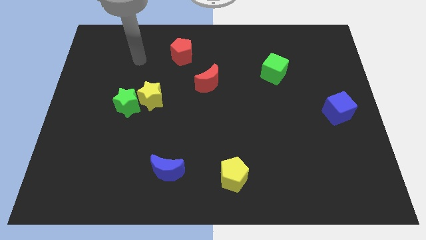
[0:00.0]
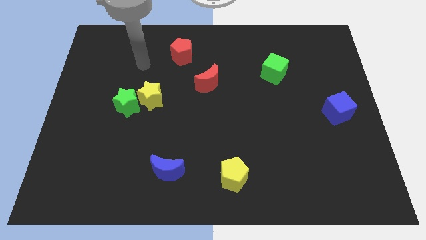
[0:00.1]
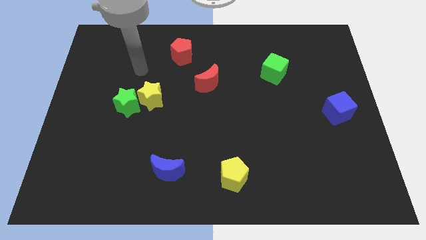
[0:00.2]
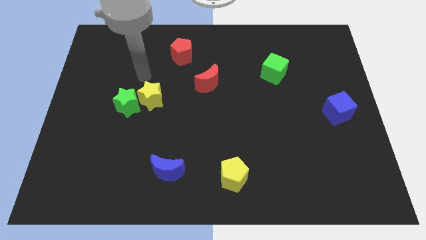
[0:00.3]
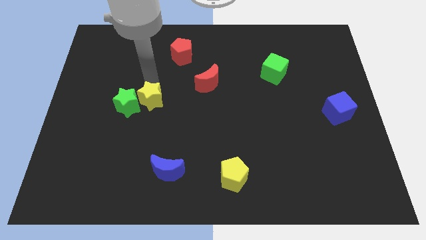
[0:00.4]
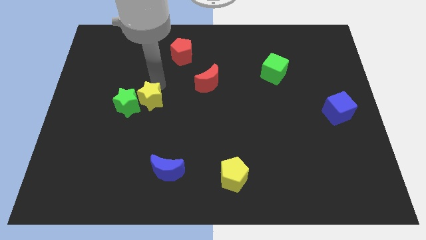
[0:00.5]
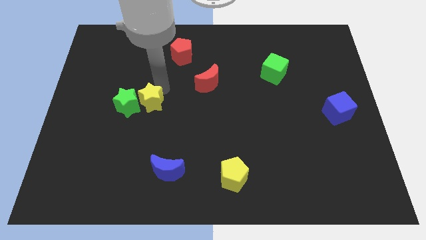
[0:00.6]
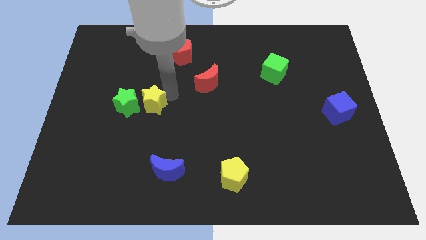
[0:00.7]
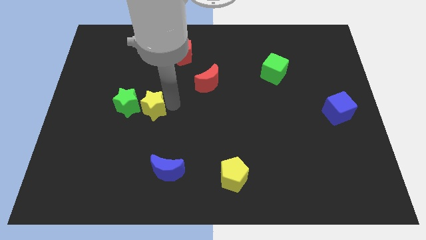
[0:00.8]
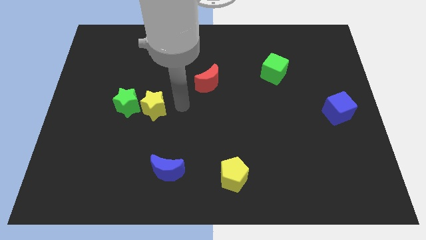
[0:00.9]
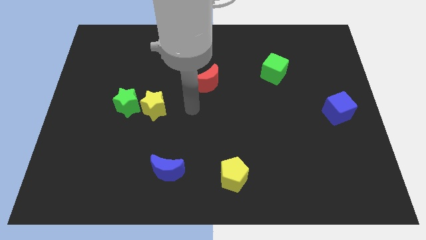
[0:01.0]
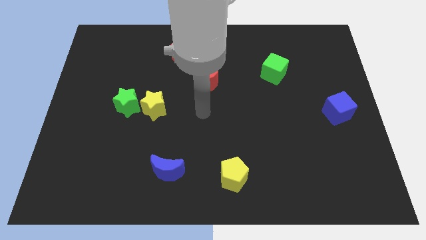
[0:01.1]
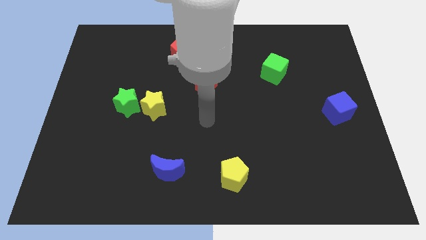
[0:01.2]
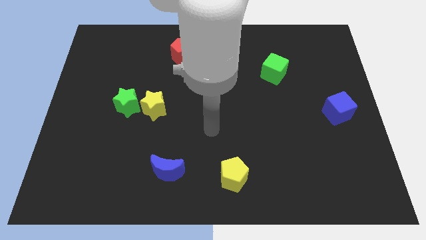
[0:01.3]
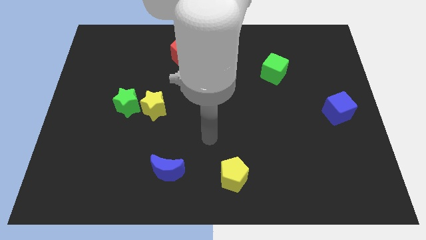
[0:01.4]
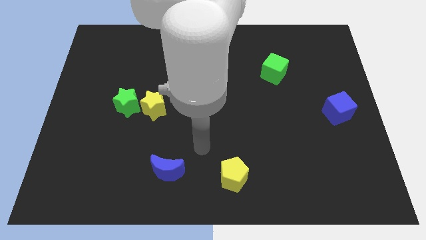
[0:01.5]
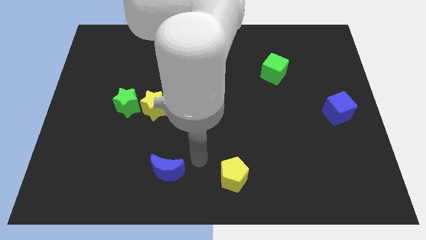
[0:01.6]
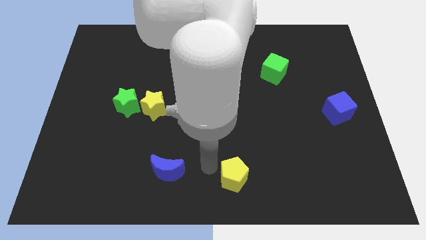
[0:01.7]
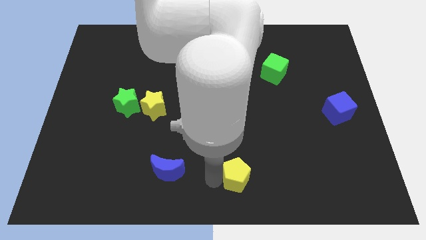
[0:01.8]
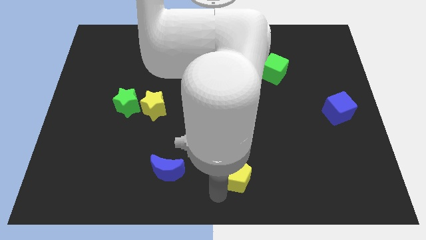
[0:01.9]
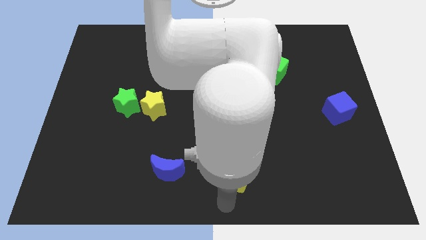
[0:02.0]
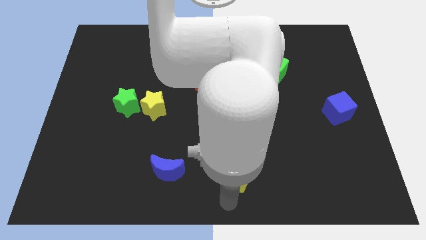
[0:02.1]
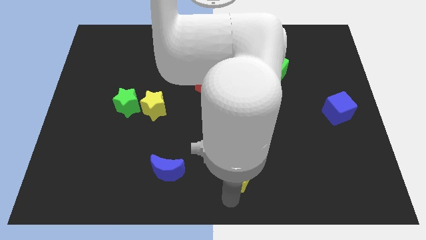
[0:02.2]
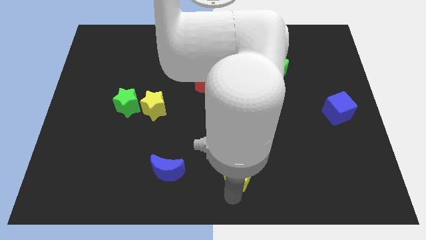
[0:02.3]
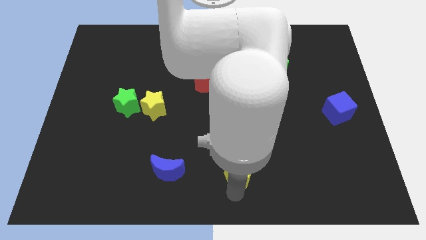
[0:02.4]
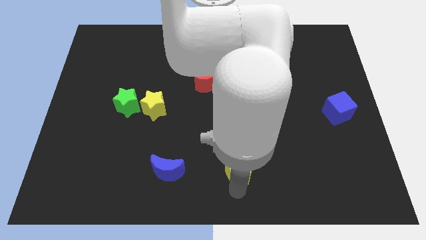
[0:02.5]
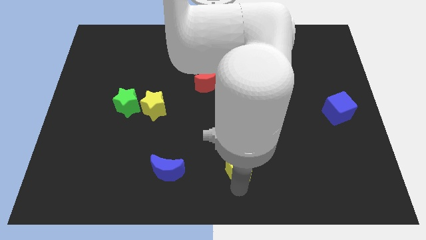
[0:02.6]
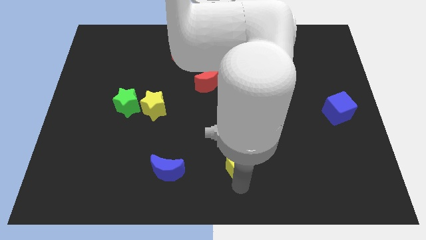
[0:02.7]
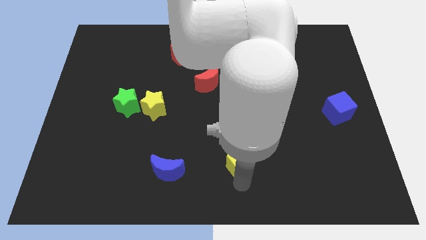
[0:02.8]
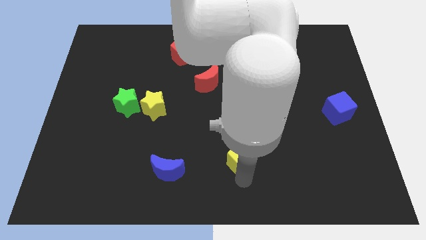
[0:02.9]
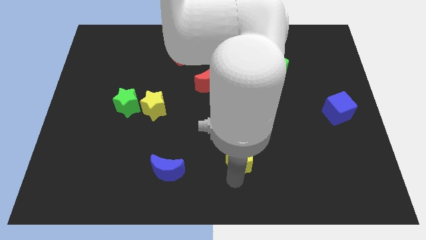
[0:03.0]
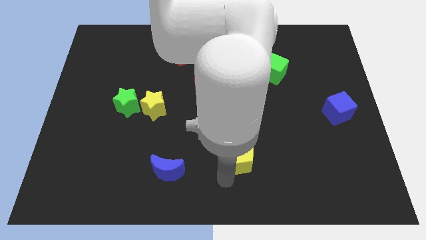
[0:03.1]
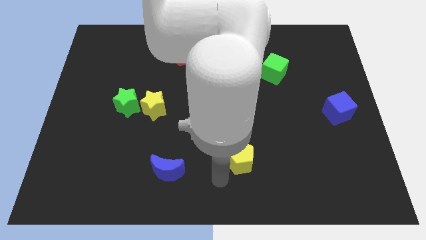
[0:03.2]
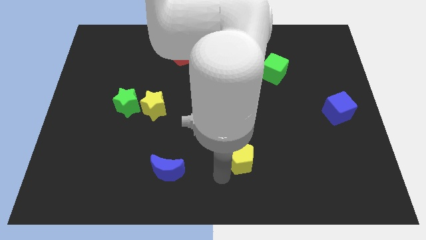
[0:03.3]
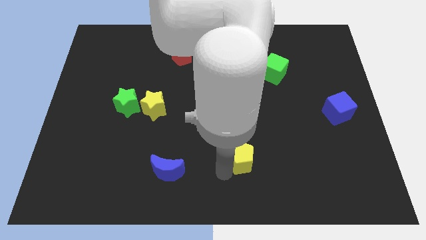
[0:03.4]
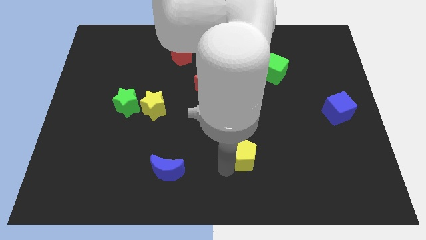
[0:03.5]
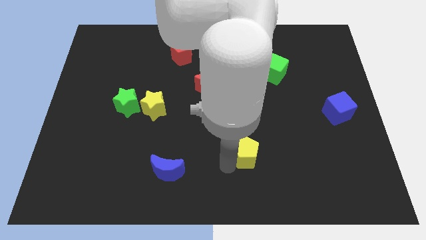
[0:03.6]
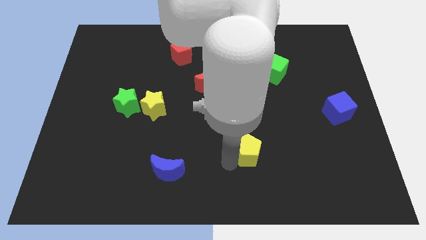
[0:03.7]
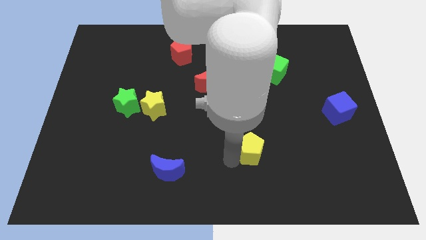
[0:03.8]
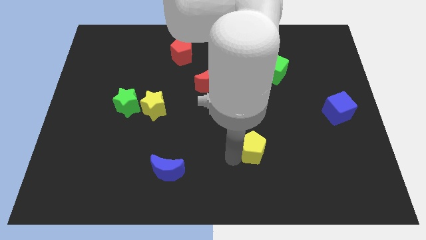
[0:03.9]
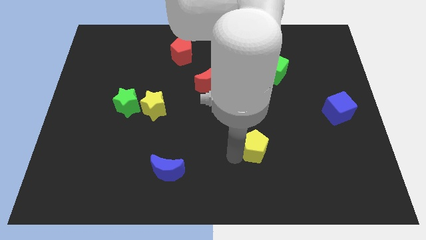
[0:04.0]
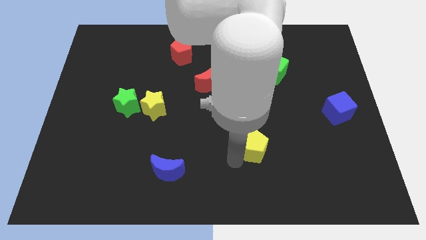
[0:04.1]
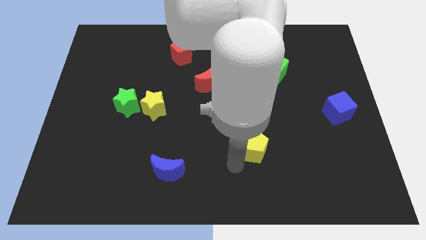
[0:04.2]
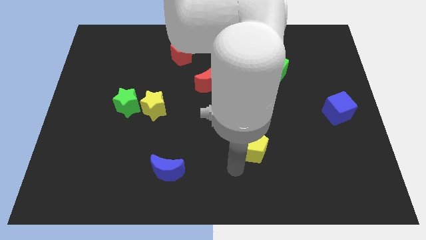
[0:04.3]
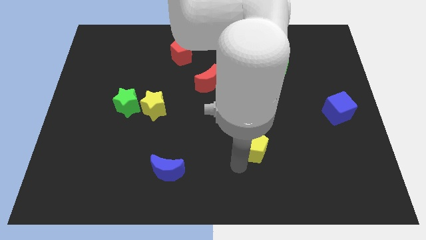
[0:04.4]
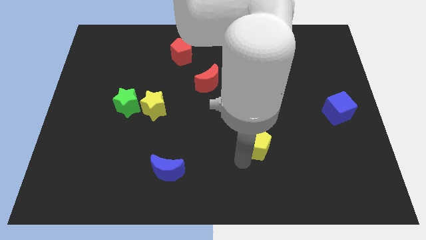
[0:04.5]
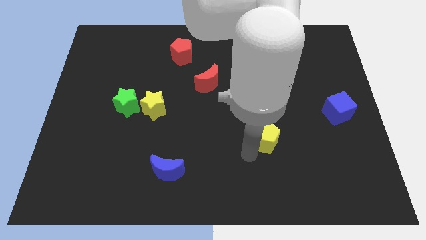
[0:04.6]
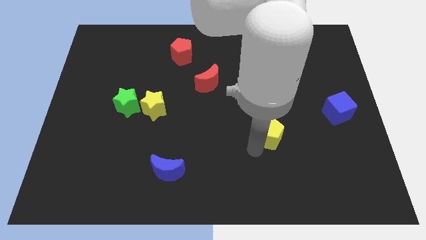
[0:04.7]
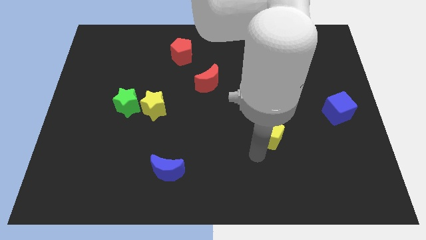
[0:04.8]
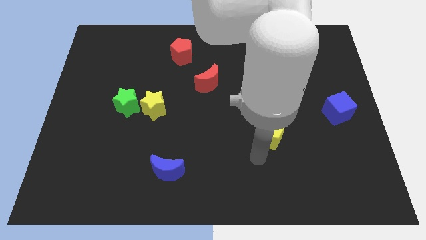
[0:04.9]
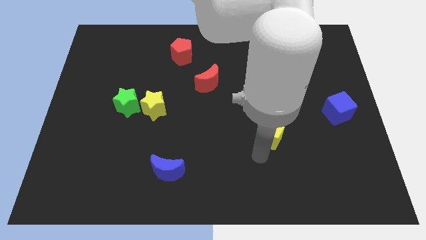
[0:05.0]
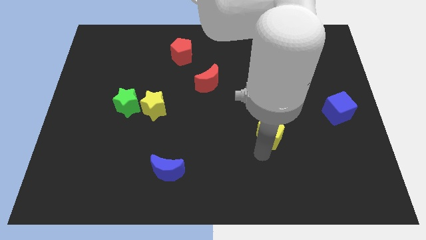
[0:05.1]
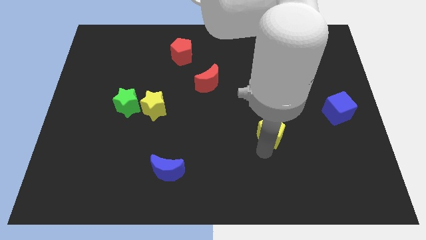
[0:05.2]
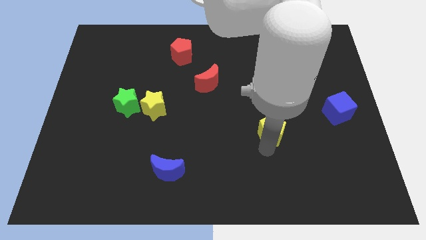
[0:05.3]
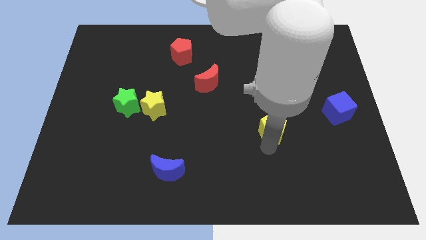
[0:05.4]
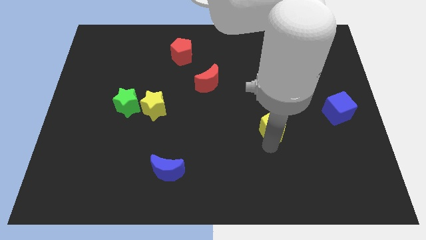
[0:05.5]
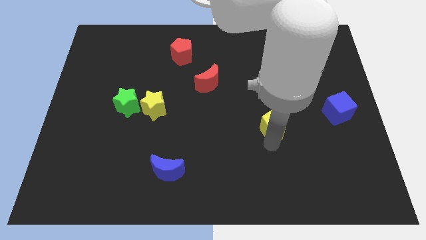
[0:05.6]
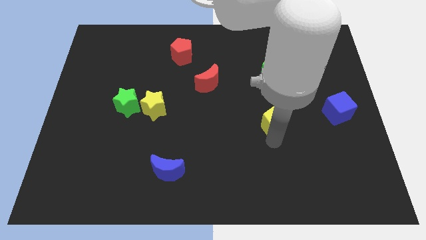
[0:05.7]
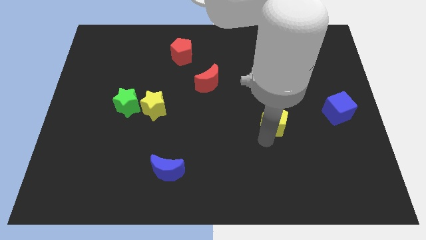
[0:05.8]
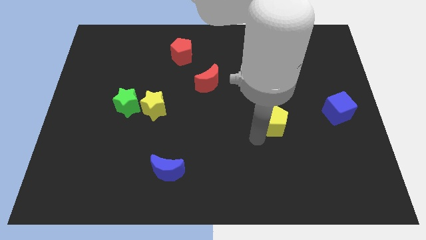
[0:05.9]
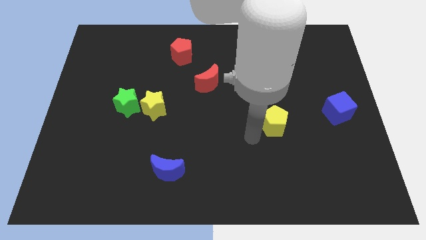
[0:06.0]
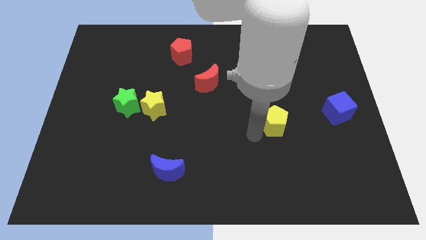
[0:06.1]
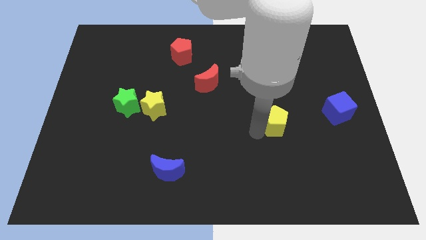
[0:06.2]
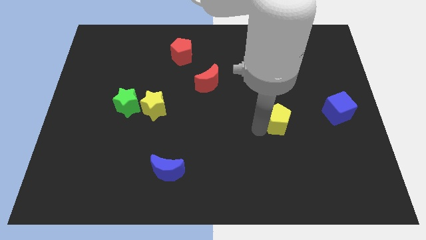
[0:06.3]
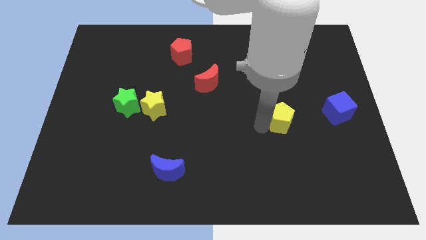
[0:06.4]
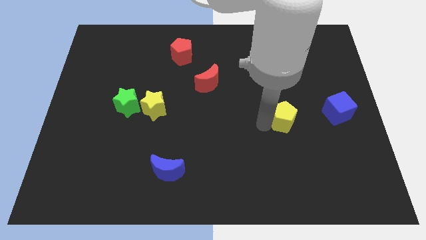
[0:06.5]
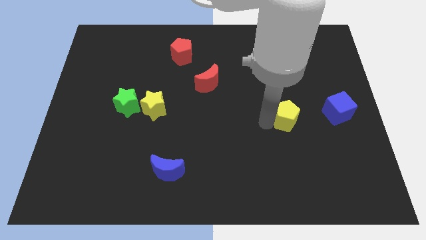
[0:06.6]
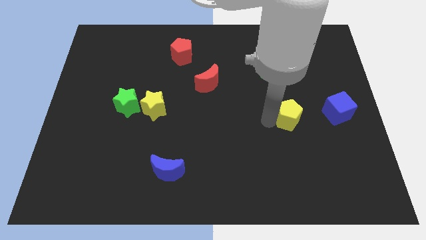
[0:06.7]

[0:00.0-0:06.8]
slide the yellow pentagon up and then right

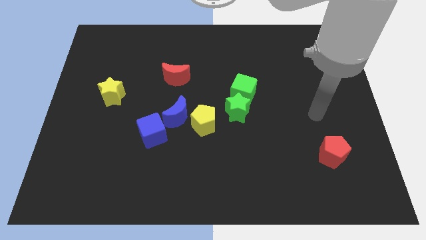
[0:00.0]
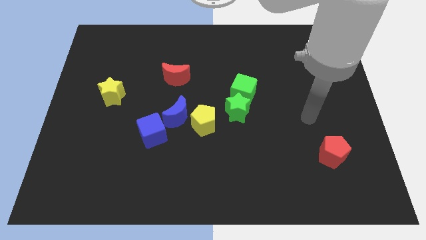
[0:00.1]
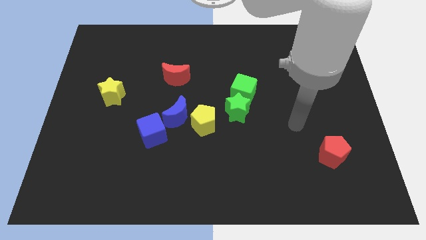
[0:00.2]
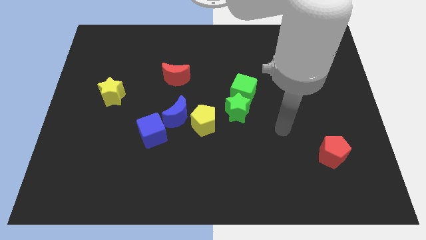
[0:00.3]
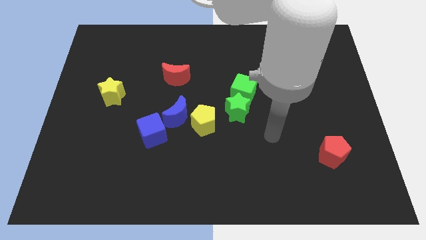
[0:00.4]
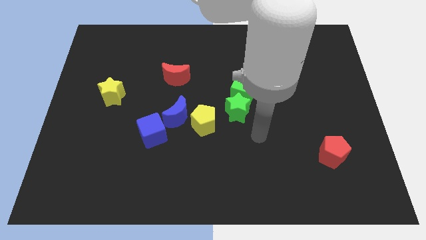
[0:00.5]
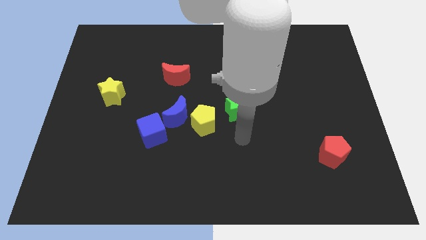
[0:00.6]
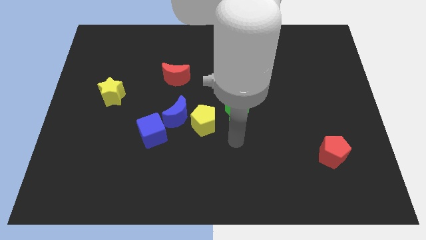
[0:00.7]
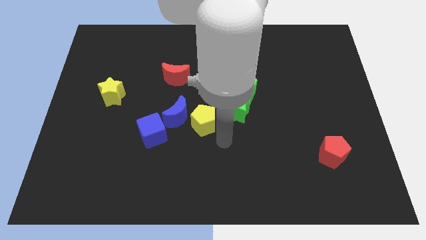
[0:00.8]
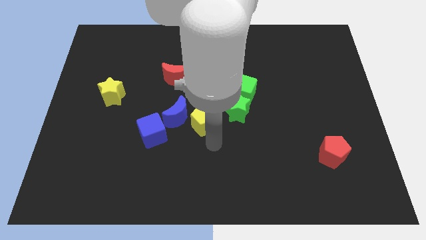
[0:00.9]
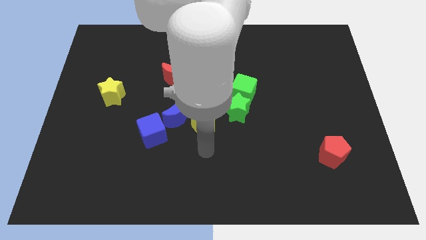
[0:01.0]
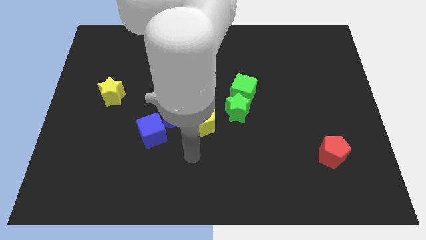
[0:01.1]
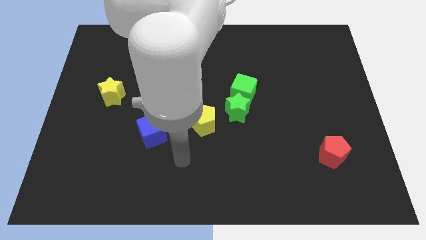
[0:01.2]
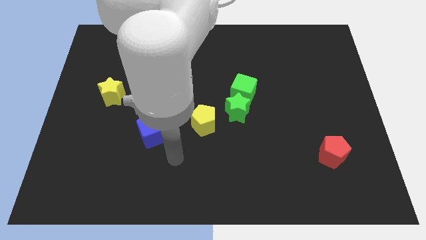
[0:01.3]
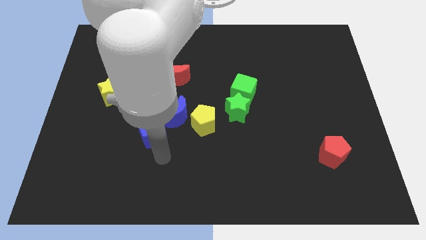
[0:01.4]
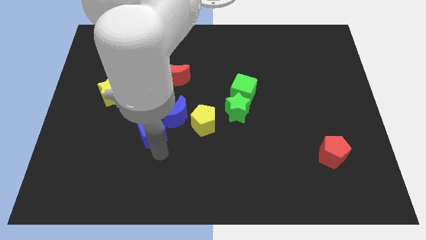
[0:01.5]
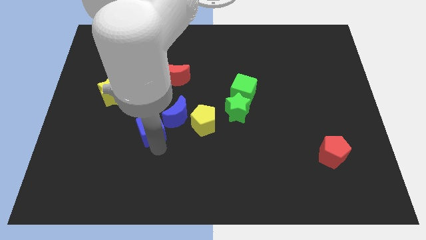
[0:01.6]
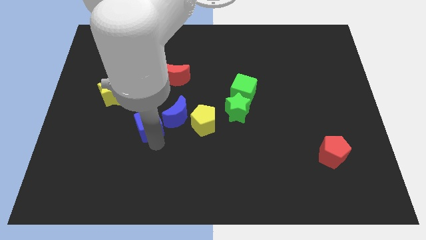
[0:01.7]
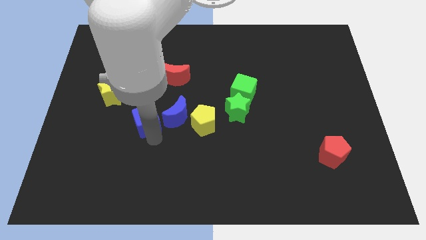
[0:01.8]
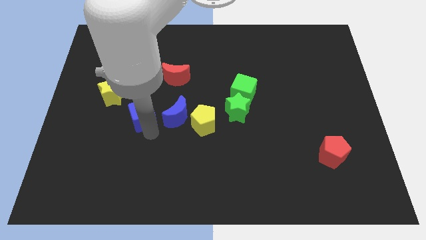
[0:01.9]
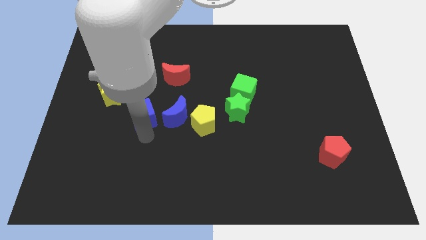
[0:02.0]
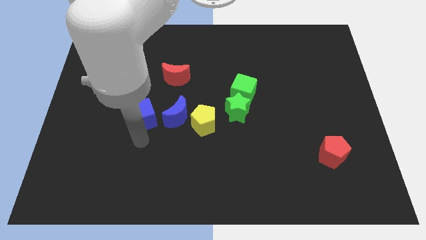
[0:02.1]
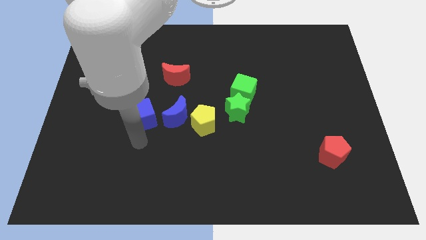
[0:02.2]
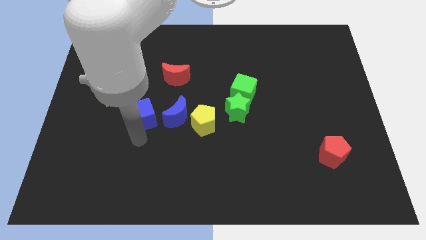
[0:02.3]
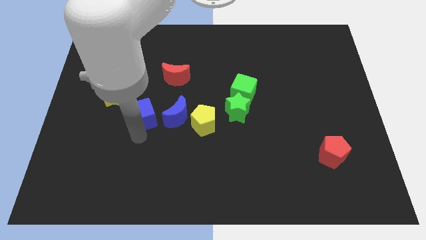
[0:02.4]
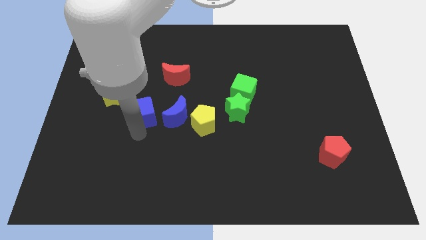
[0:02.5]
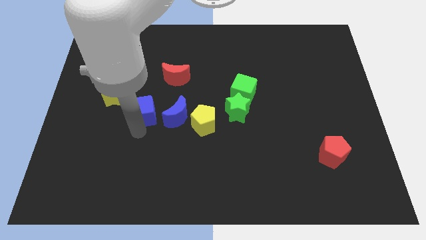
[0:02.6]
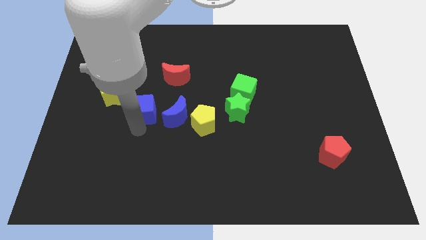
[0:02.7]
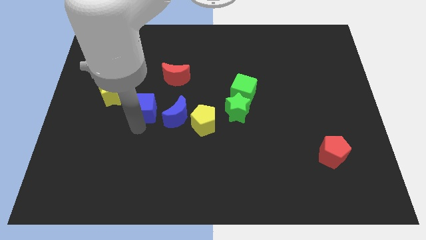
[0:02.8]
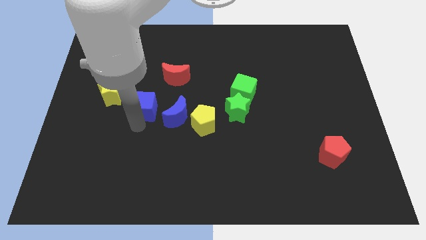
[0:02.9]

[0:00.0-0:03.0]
slide the blue cube upwards somewhat
